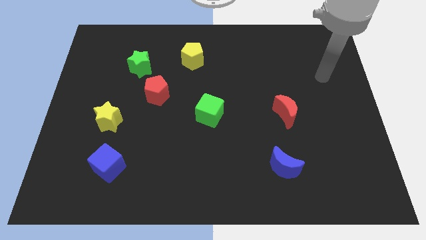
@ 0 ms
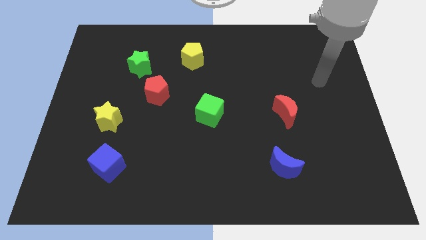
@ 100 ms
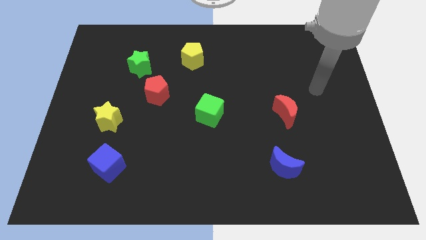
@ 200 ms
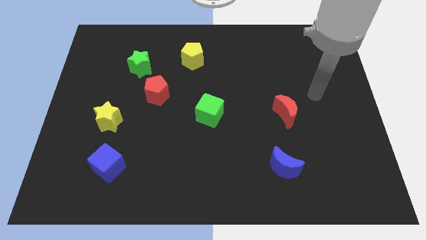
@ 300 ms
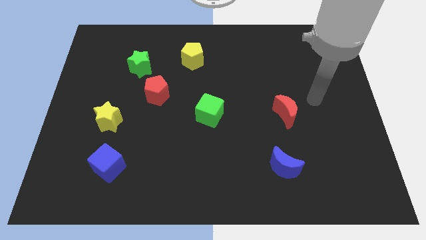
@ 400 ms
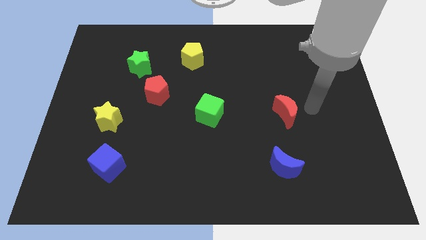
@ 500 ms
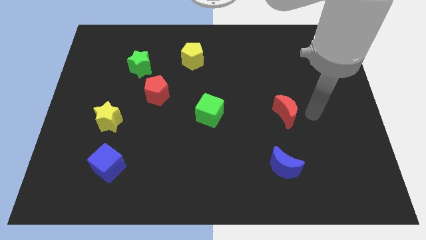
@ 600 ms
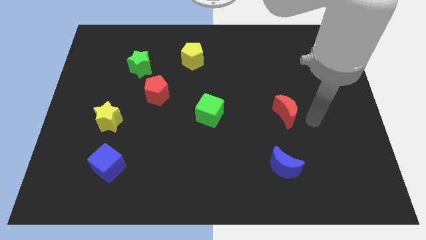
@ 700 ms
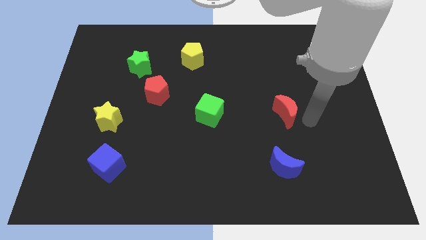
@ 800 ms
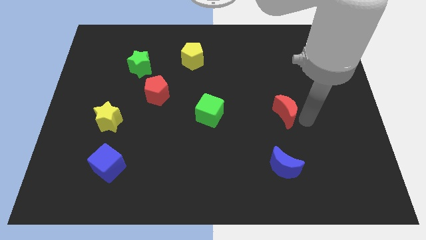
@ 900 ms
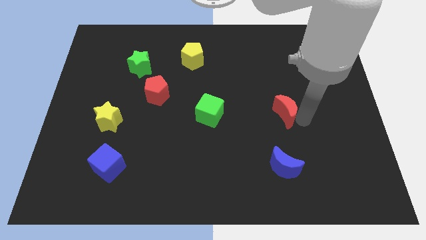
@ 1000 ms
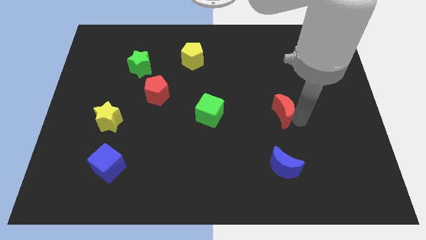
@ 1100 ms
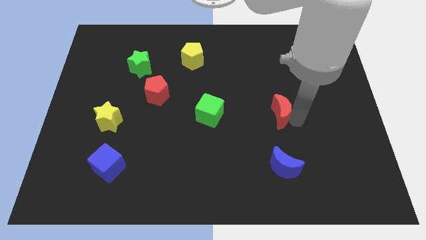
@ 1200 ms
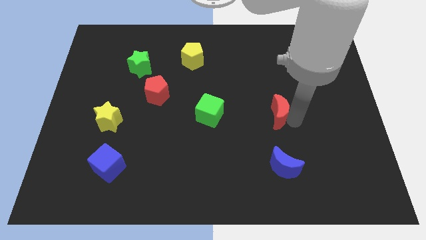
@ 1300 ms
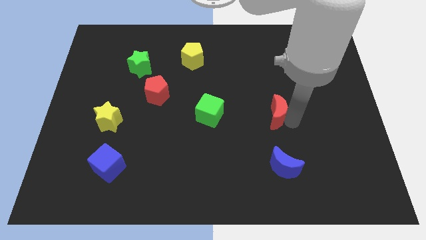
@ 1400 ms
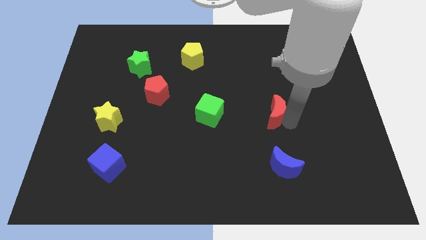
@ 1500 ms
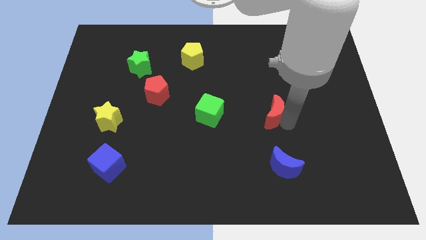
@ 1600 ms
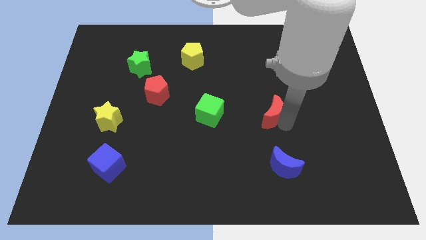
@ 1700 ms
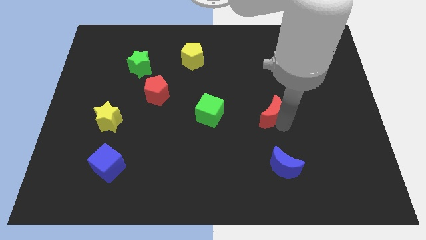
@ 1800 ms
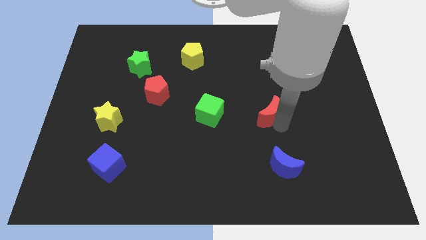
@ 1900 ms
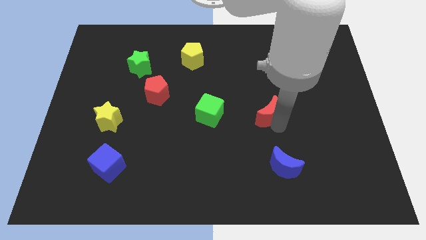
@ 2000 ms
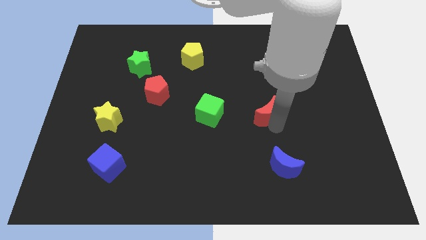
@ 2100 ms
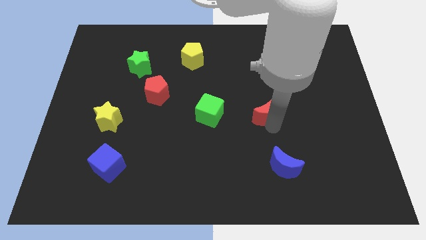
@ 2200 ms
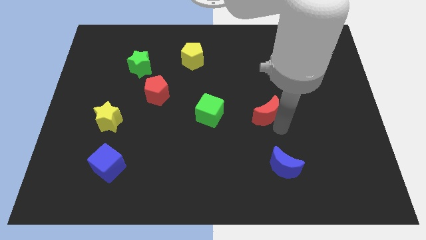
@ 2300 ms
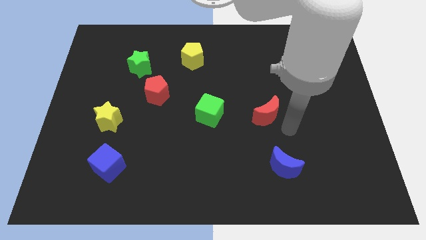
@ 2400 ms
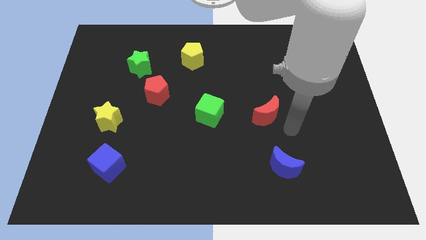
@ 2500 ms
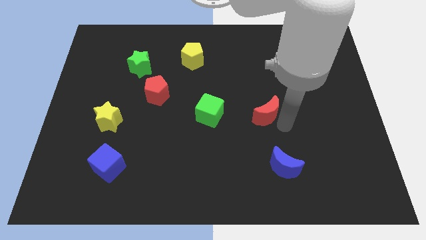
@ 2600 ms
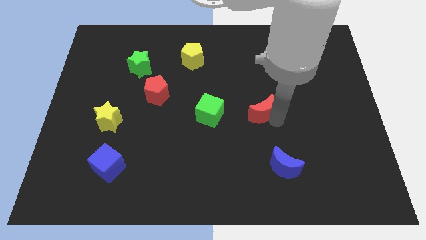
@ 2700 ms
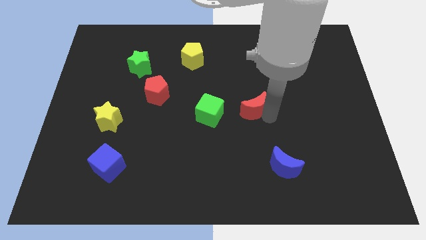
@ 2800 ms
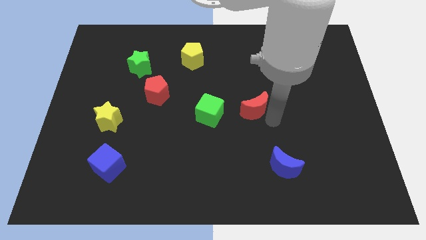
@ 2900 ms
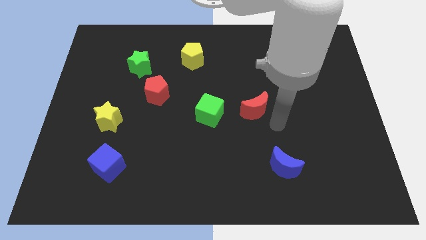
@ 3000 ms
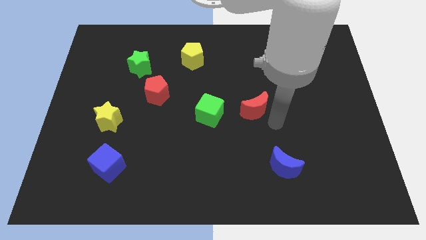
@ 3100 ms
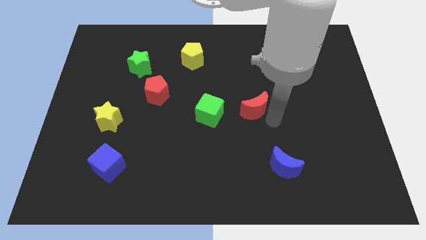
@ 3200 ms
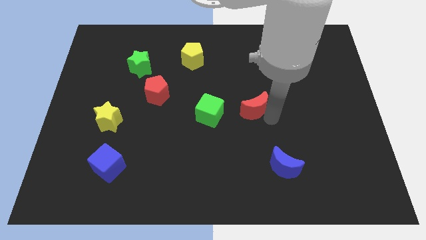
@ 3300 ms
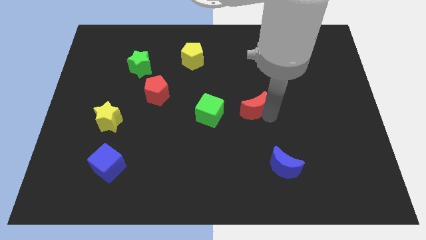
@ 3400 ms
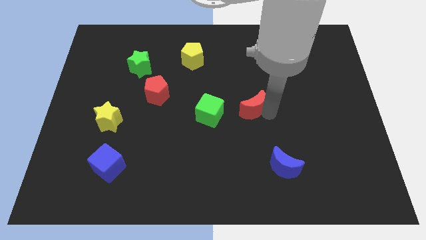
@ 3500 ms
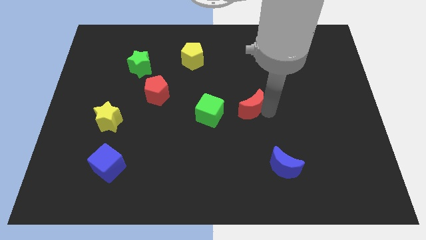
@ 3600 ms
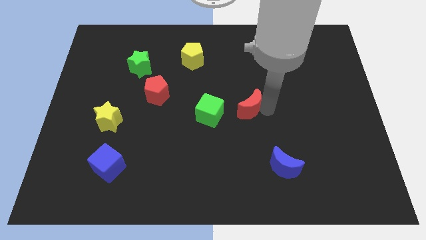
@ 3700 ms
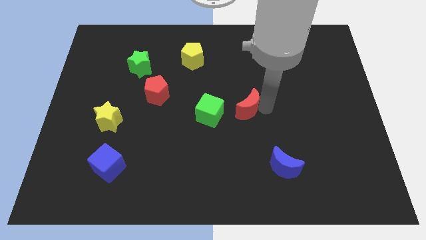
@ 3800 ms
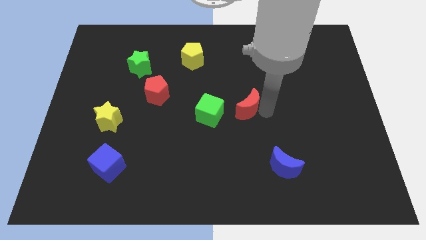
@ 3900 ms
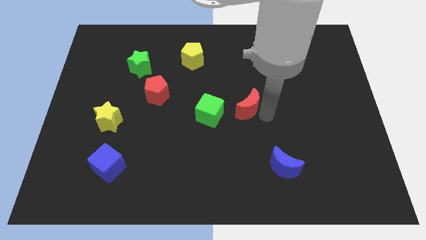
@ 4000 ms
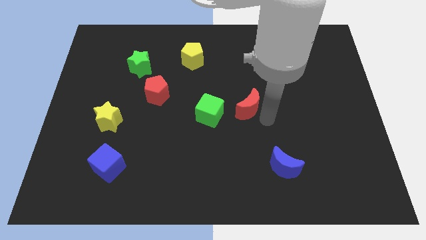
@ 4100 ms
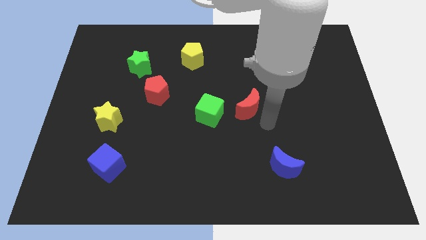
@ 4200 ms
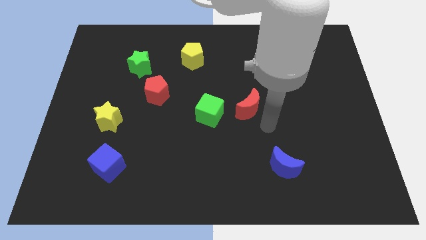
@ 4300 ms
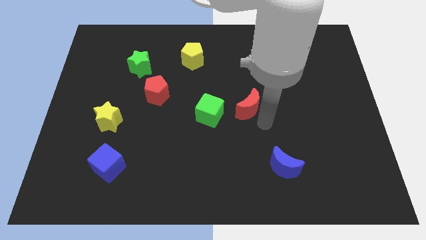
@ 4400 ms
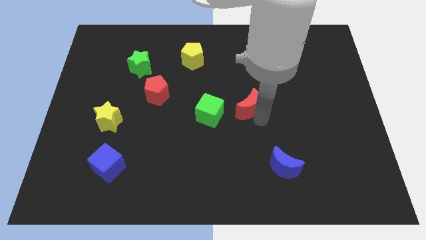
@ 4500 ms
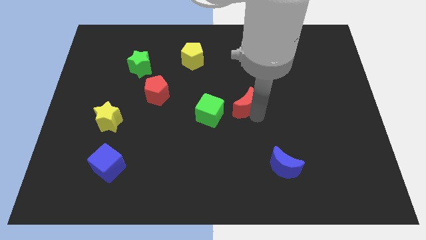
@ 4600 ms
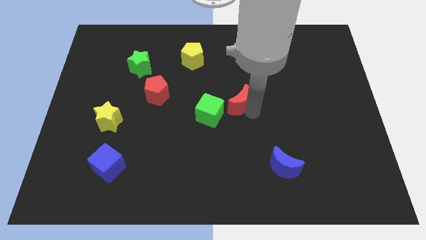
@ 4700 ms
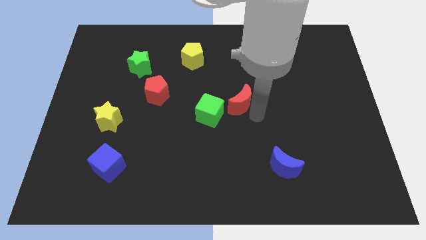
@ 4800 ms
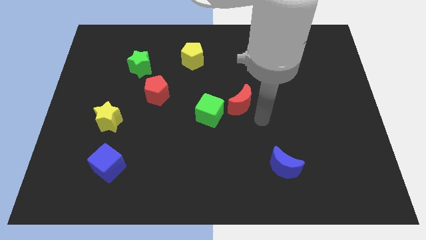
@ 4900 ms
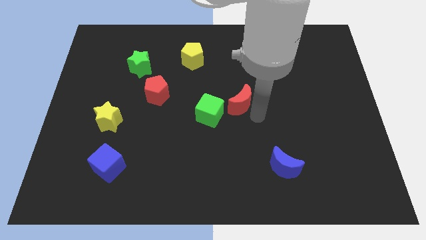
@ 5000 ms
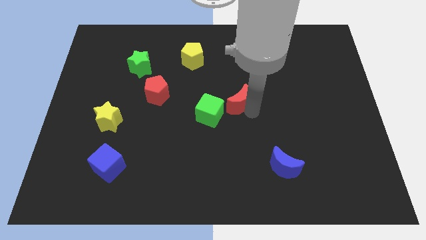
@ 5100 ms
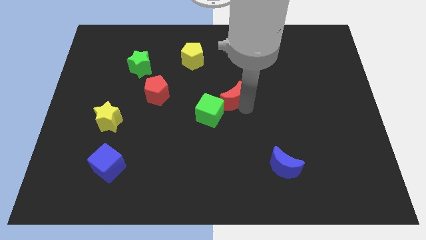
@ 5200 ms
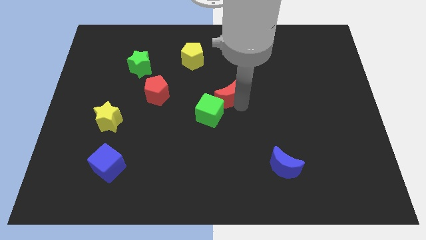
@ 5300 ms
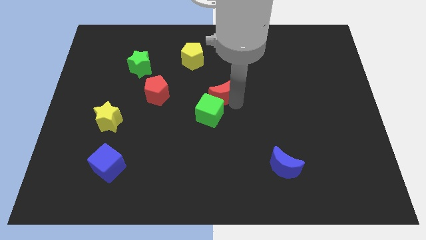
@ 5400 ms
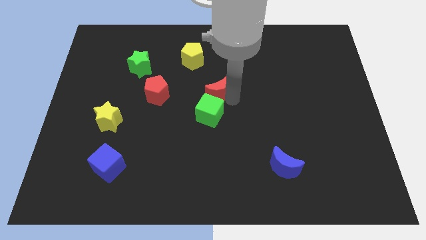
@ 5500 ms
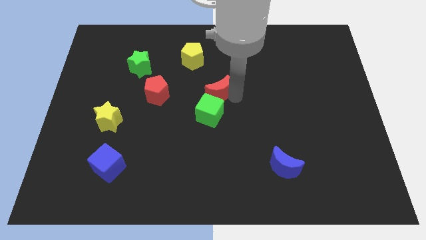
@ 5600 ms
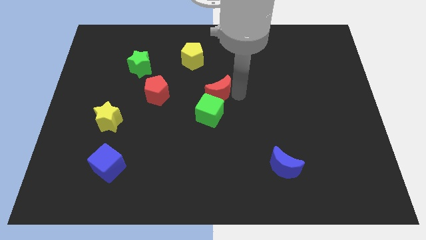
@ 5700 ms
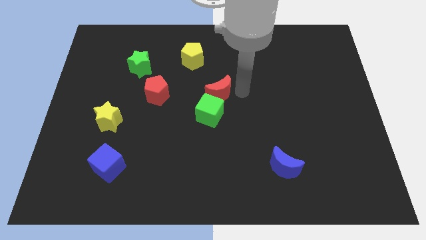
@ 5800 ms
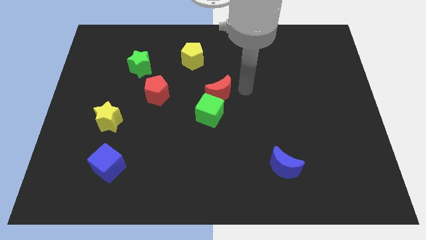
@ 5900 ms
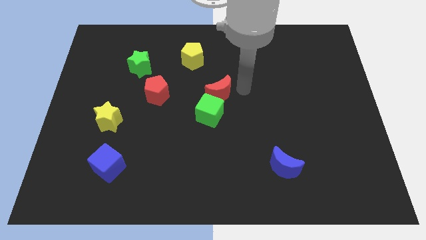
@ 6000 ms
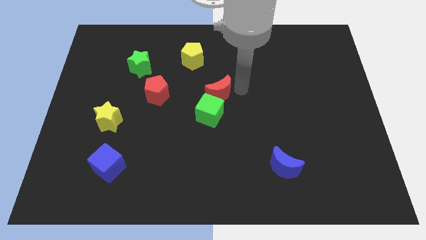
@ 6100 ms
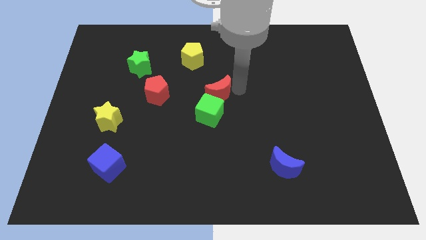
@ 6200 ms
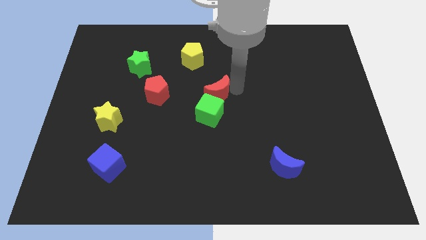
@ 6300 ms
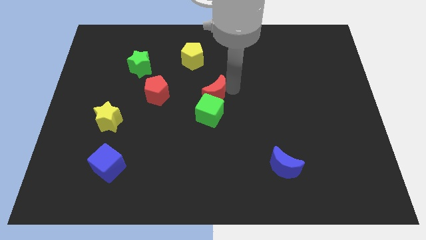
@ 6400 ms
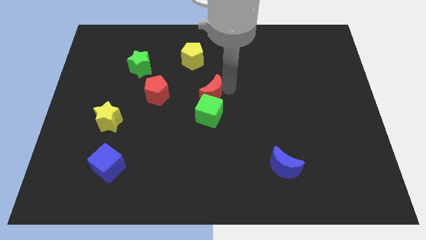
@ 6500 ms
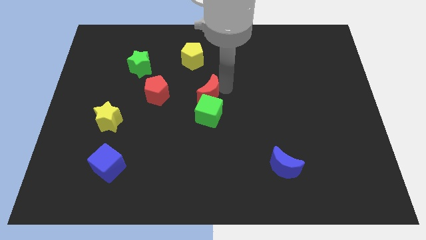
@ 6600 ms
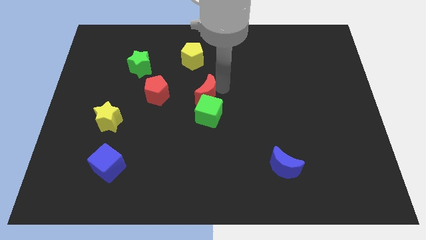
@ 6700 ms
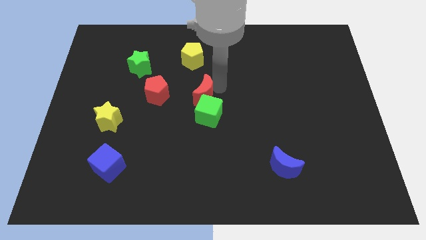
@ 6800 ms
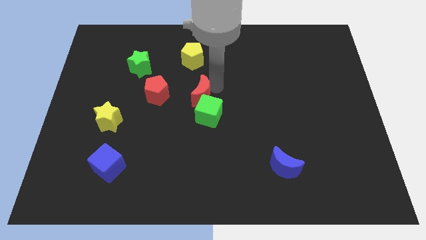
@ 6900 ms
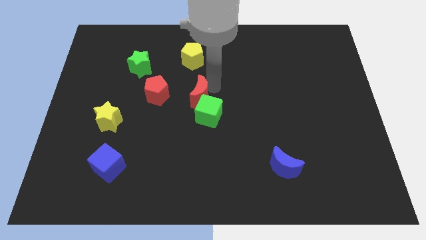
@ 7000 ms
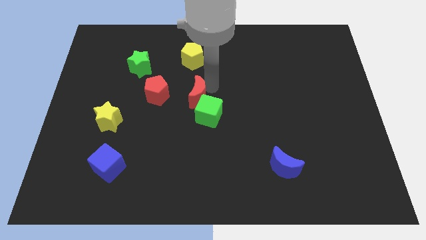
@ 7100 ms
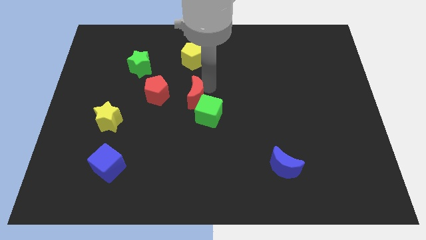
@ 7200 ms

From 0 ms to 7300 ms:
slide the red moon to the left

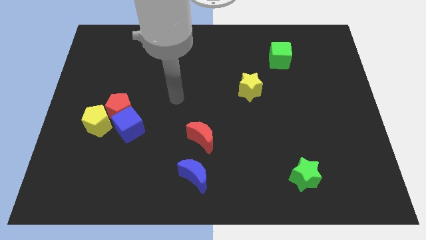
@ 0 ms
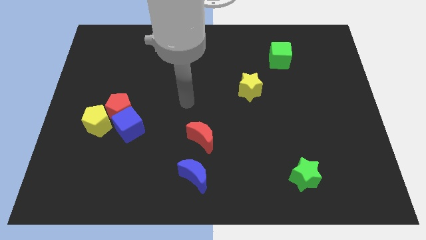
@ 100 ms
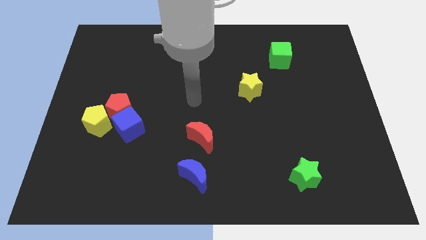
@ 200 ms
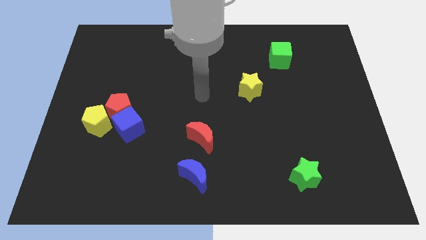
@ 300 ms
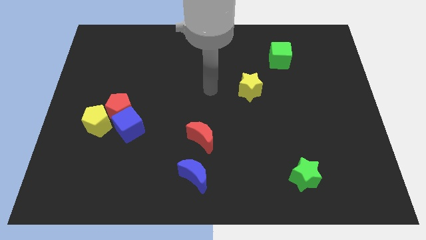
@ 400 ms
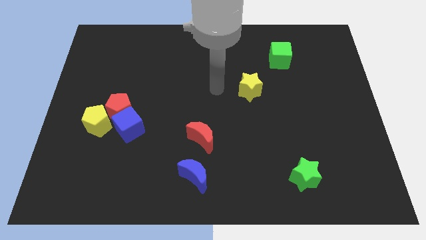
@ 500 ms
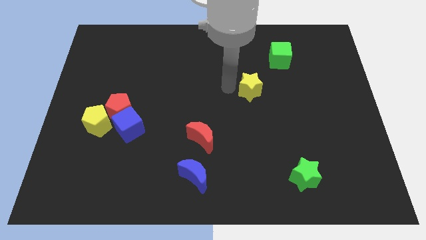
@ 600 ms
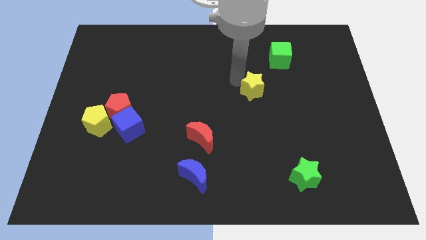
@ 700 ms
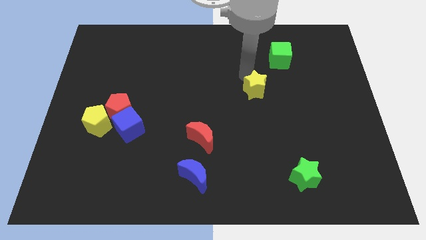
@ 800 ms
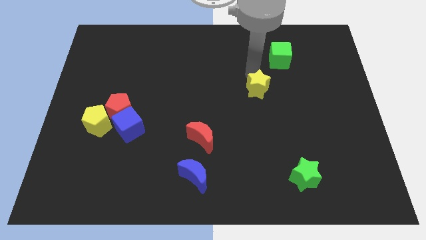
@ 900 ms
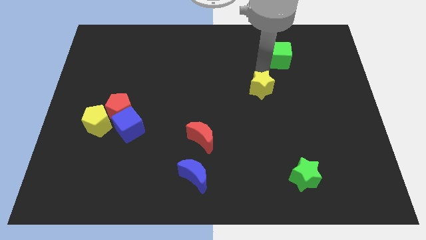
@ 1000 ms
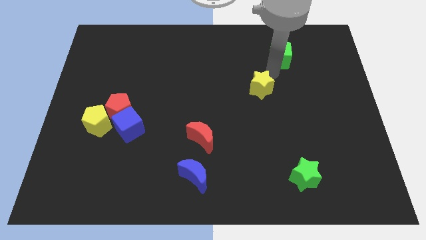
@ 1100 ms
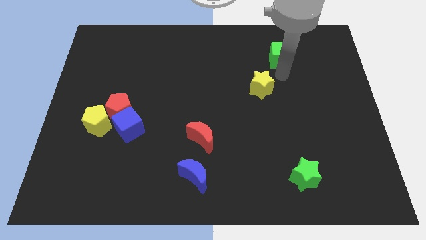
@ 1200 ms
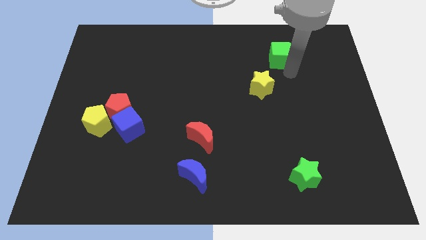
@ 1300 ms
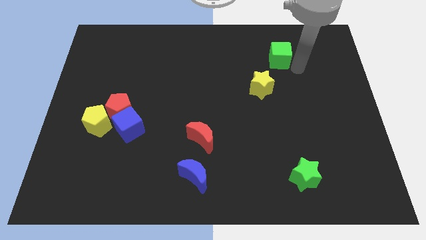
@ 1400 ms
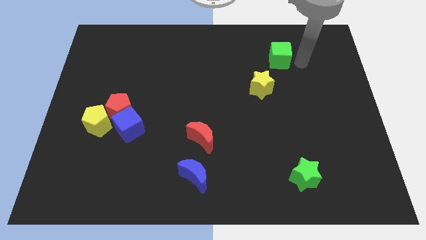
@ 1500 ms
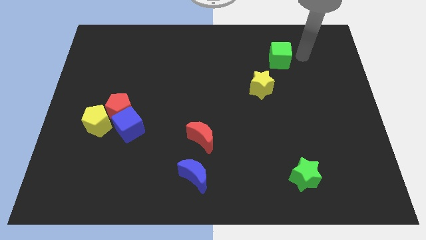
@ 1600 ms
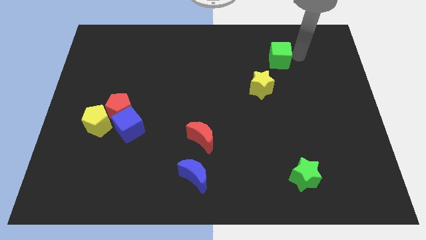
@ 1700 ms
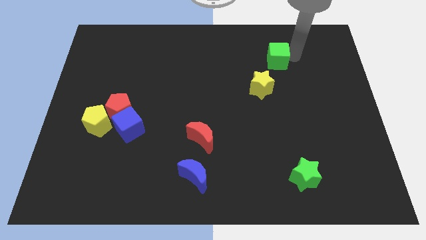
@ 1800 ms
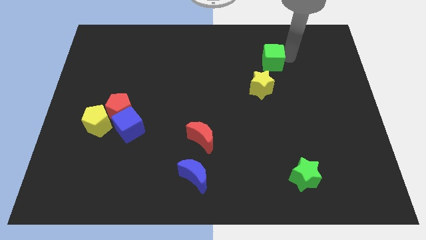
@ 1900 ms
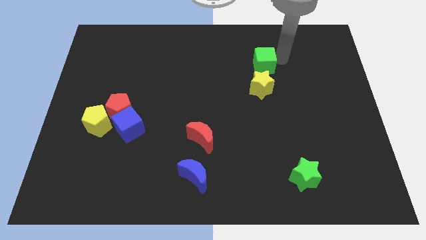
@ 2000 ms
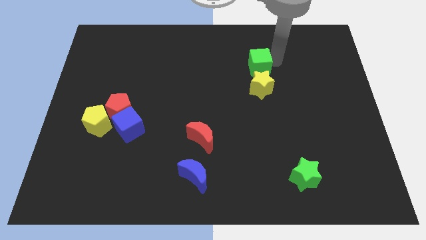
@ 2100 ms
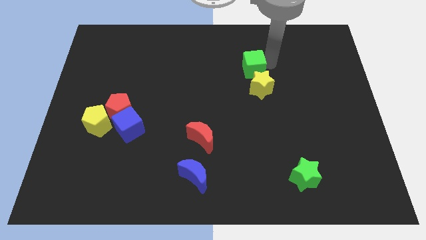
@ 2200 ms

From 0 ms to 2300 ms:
push the green cube to the left a little
